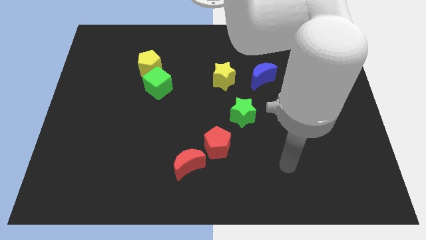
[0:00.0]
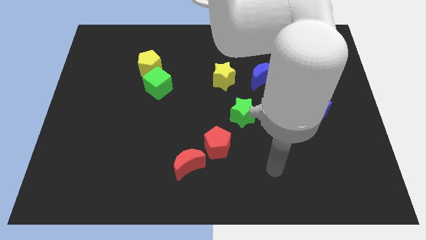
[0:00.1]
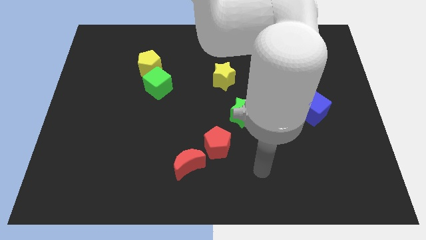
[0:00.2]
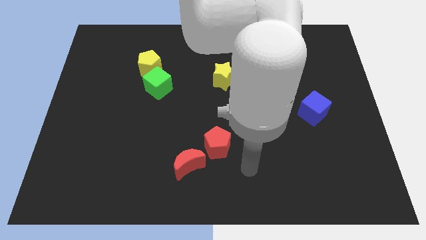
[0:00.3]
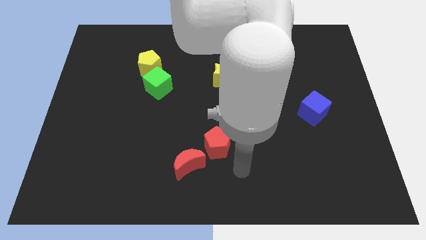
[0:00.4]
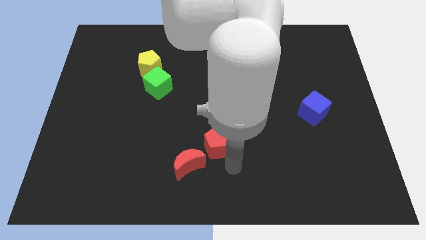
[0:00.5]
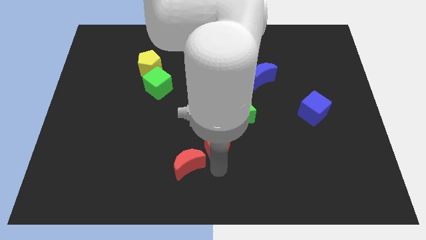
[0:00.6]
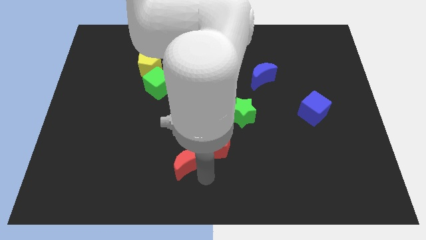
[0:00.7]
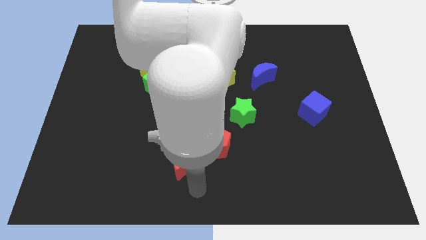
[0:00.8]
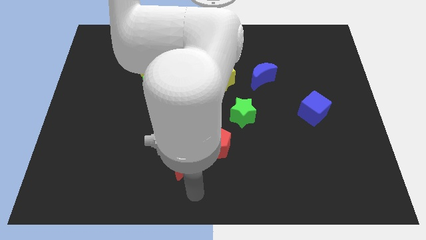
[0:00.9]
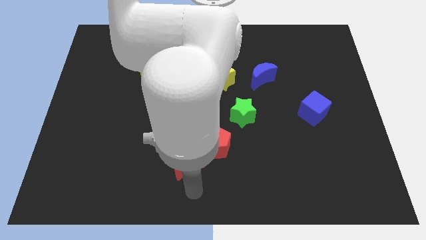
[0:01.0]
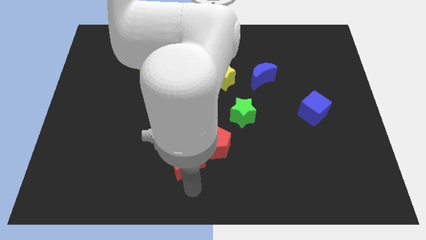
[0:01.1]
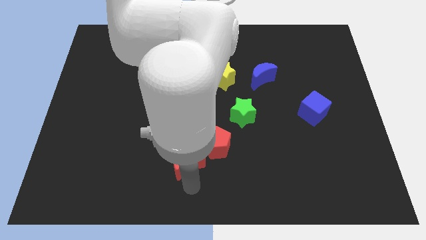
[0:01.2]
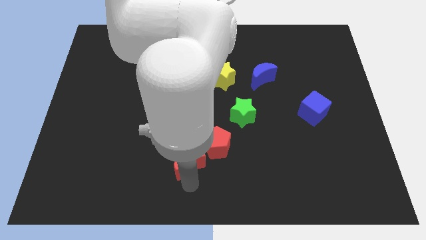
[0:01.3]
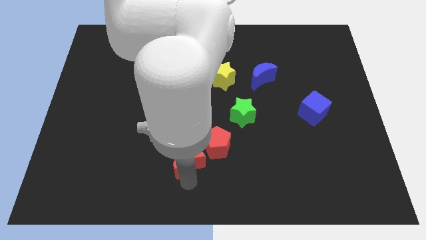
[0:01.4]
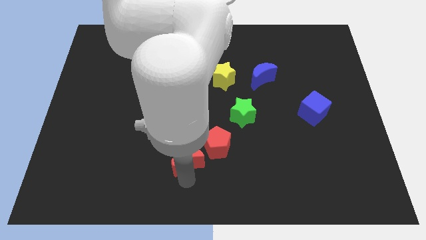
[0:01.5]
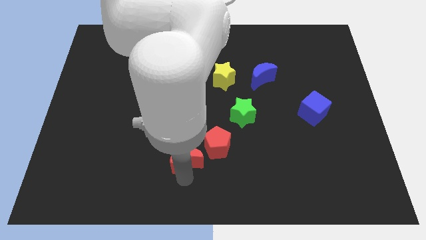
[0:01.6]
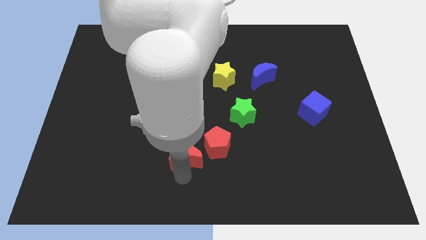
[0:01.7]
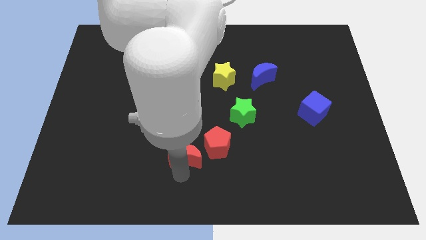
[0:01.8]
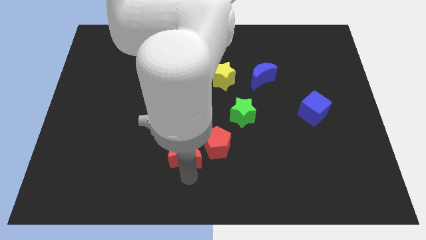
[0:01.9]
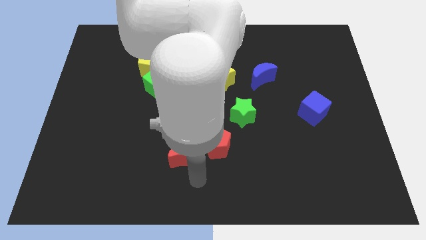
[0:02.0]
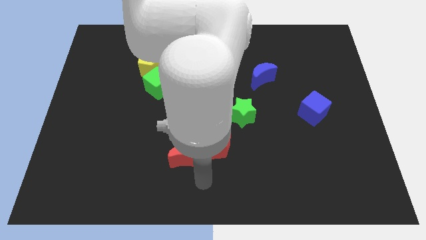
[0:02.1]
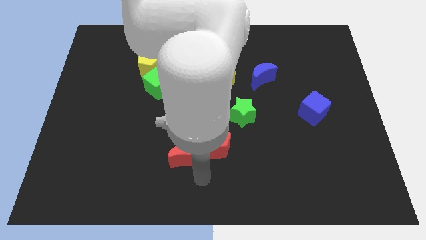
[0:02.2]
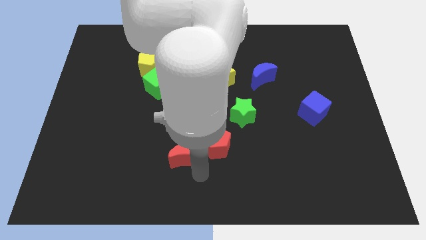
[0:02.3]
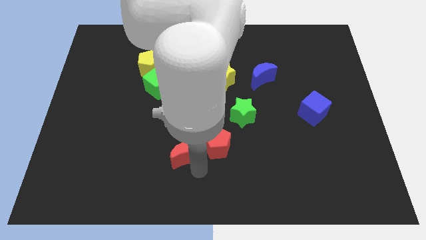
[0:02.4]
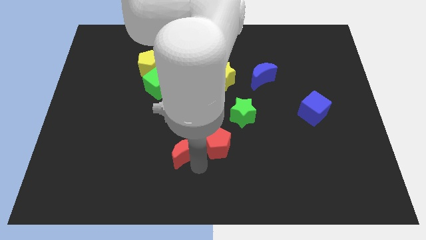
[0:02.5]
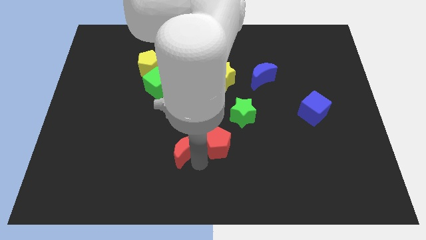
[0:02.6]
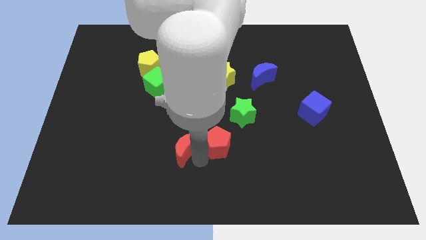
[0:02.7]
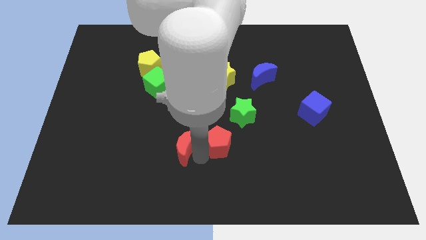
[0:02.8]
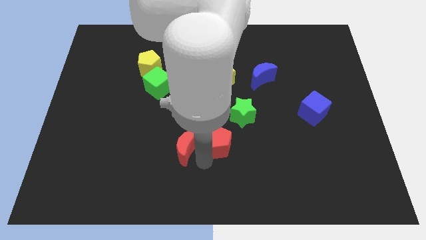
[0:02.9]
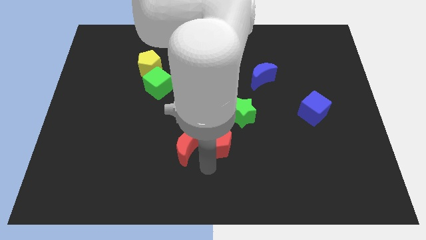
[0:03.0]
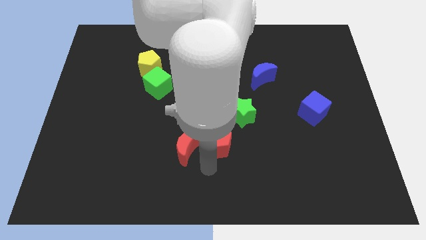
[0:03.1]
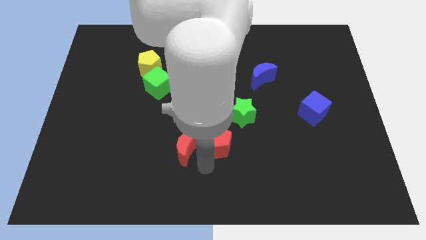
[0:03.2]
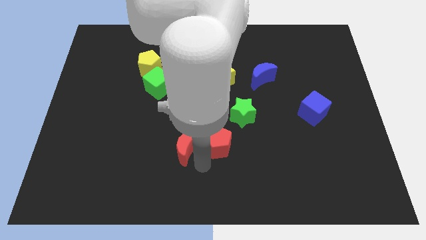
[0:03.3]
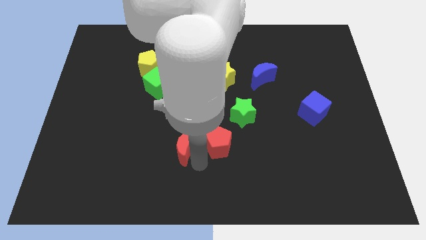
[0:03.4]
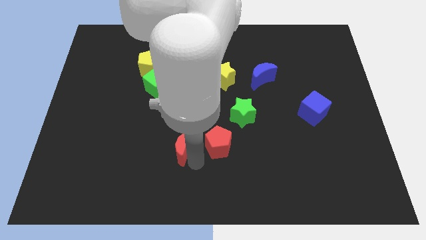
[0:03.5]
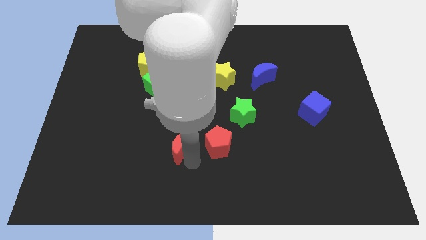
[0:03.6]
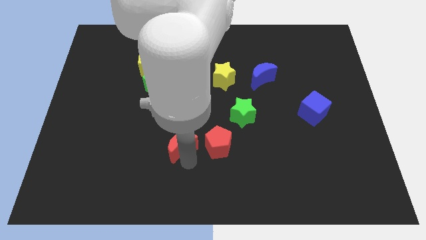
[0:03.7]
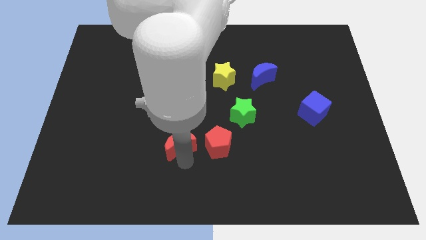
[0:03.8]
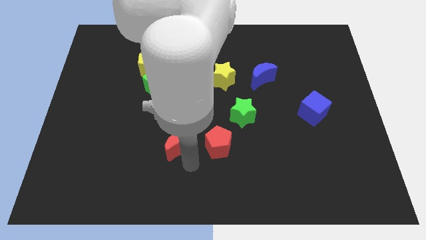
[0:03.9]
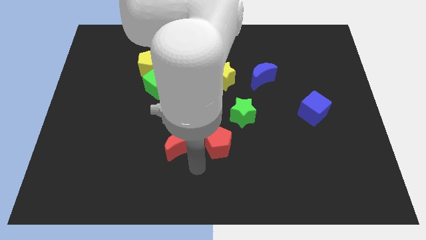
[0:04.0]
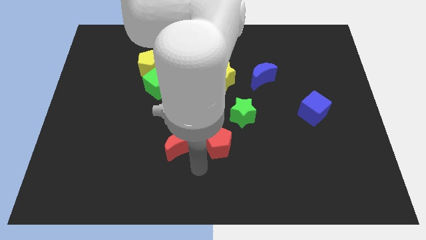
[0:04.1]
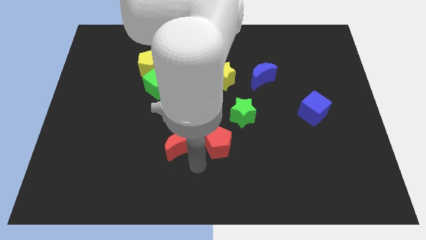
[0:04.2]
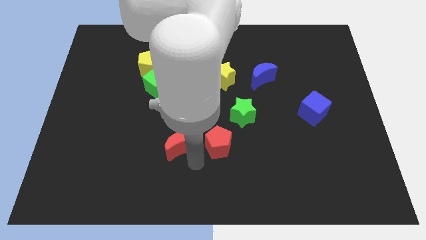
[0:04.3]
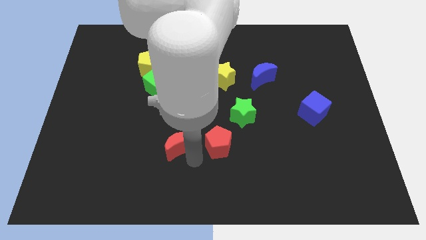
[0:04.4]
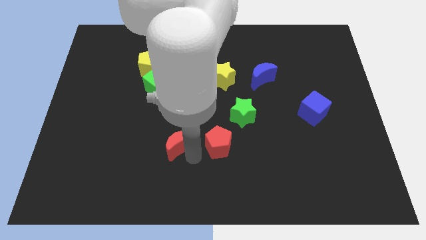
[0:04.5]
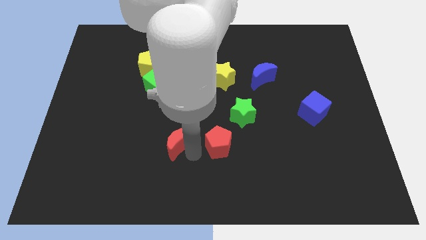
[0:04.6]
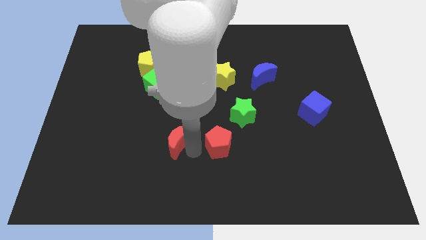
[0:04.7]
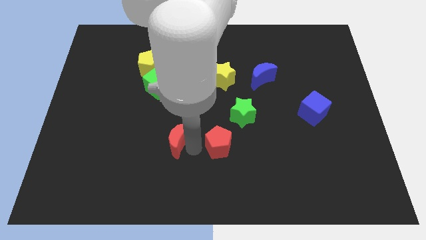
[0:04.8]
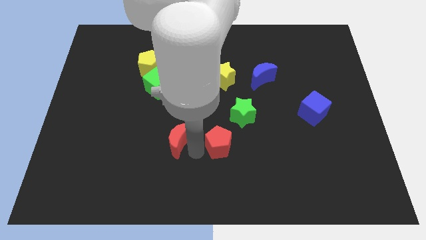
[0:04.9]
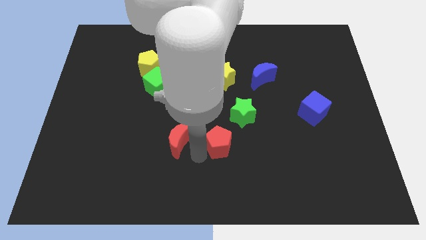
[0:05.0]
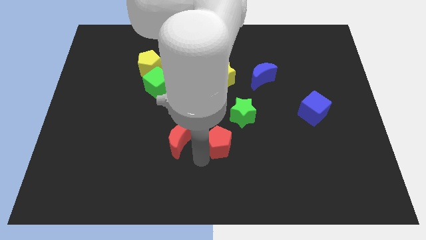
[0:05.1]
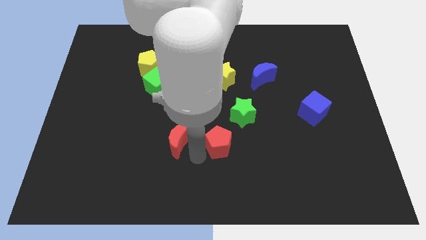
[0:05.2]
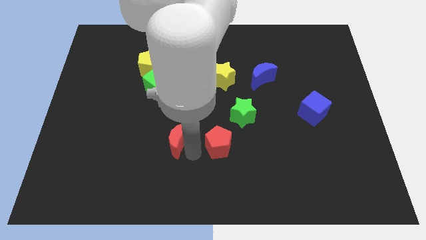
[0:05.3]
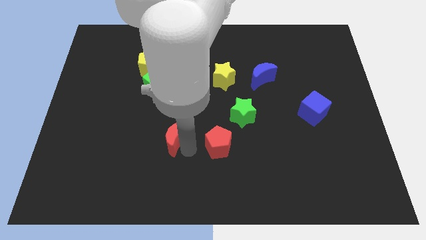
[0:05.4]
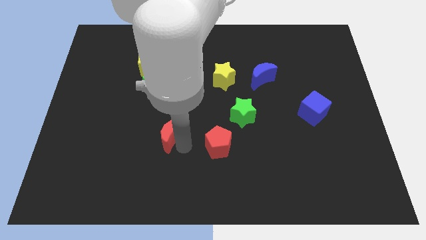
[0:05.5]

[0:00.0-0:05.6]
slide the red moon upwards and then to the left slightly

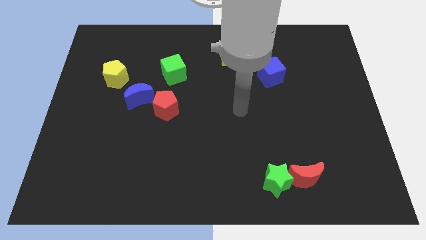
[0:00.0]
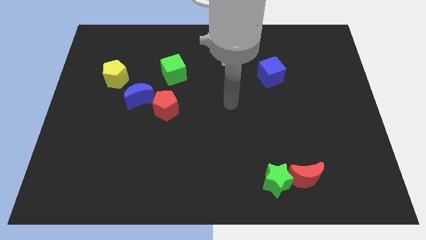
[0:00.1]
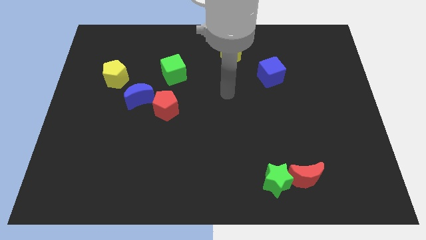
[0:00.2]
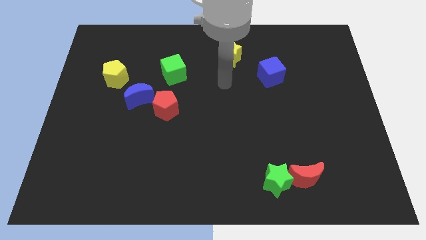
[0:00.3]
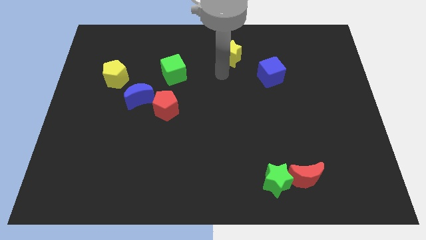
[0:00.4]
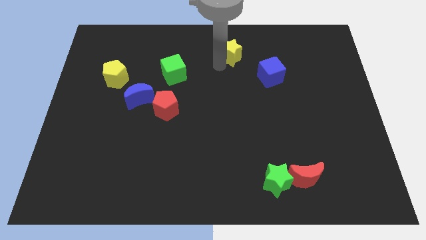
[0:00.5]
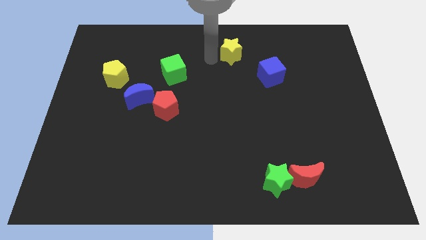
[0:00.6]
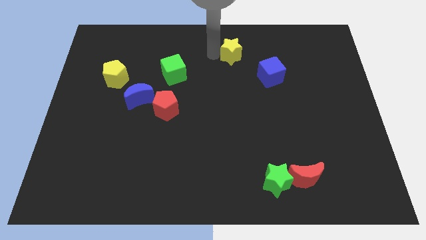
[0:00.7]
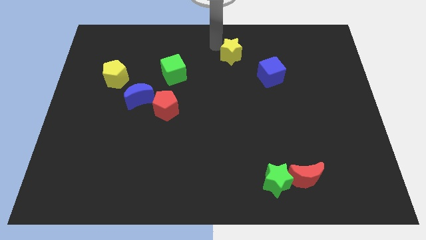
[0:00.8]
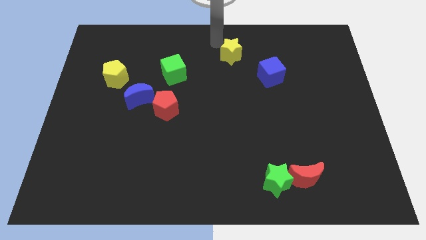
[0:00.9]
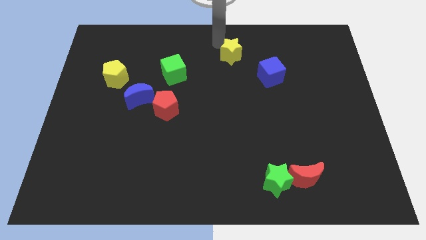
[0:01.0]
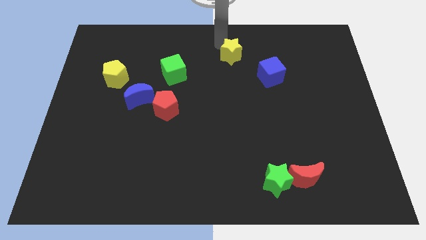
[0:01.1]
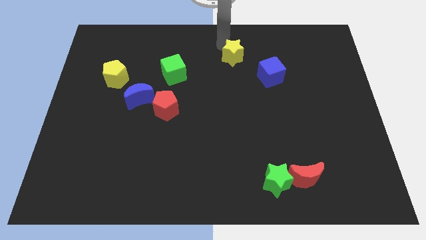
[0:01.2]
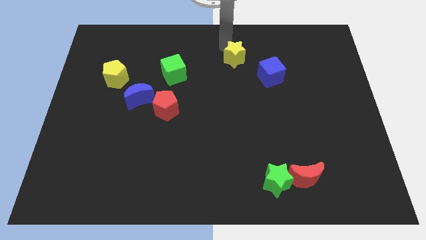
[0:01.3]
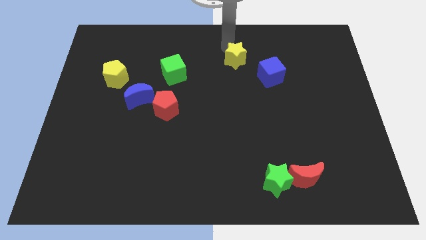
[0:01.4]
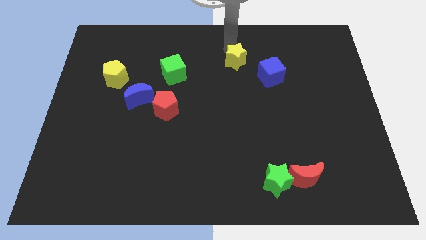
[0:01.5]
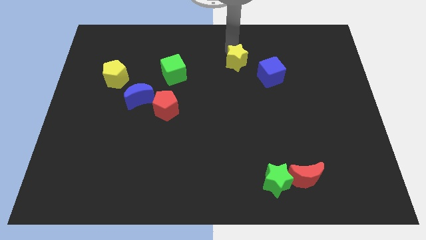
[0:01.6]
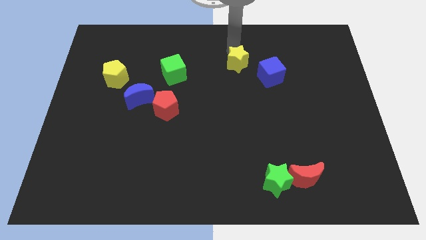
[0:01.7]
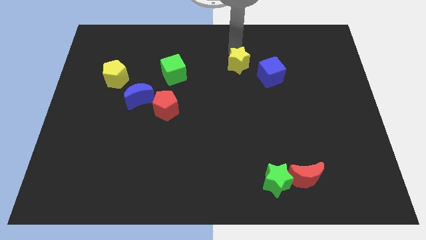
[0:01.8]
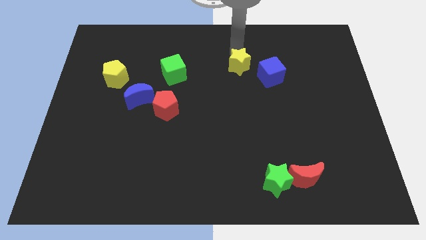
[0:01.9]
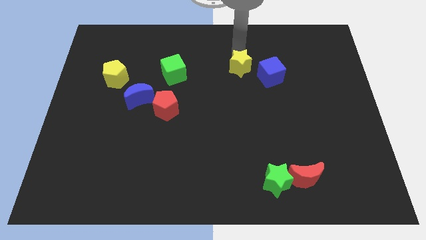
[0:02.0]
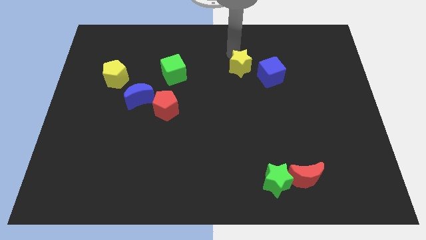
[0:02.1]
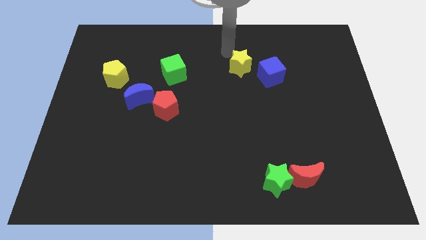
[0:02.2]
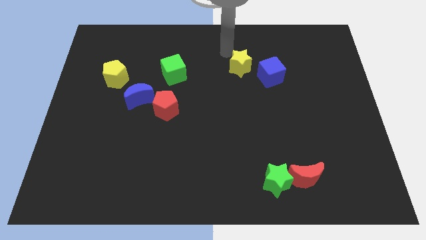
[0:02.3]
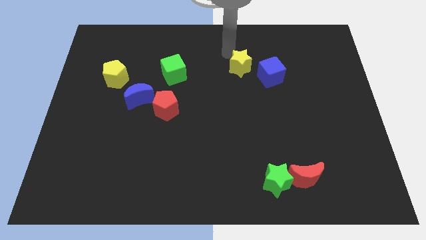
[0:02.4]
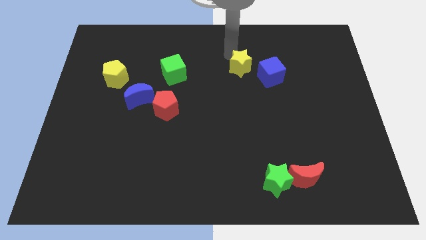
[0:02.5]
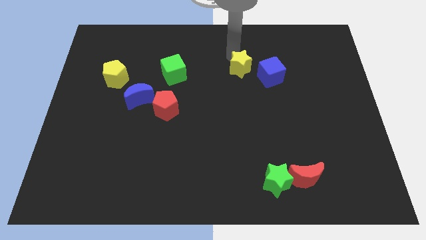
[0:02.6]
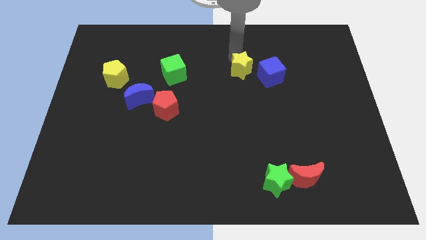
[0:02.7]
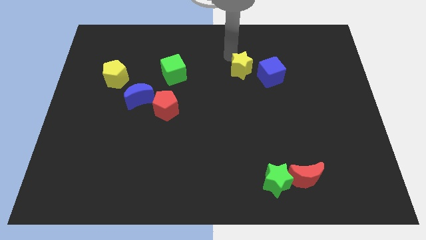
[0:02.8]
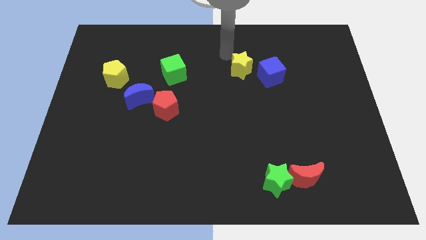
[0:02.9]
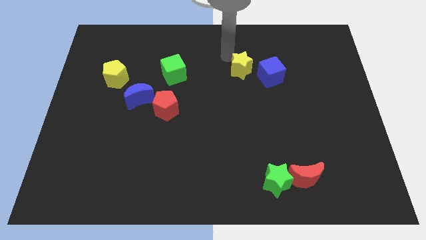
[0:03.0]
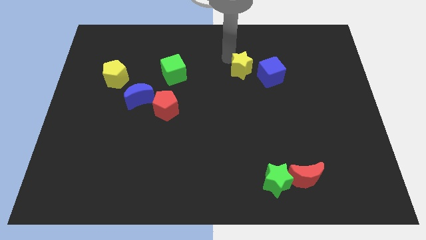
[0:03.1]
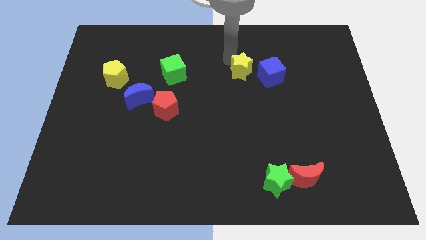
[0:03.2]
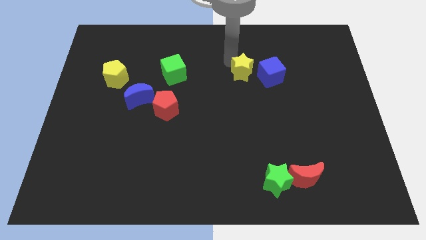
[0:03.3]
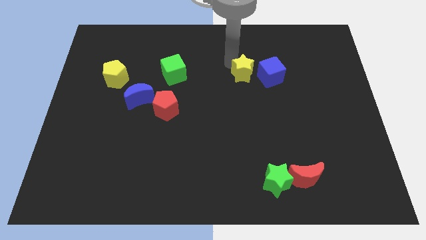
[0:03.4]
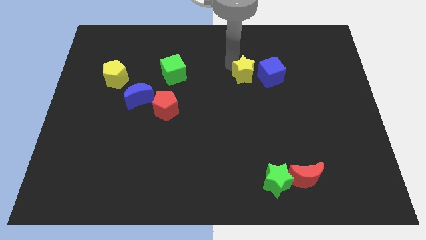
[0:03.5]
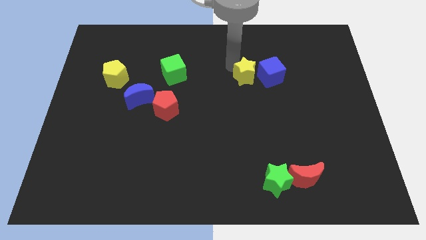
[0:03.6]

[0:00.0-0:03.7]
slightly slide the yellow star downwards and to the right
